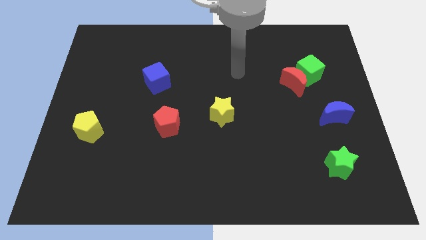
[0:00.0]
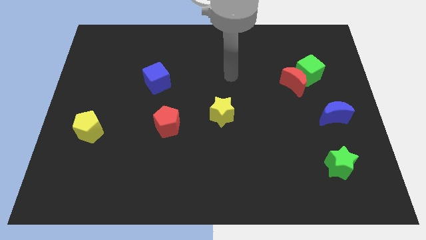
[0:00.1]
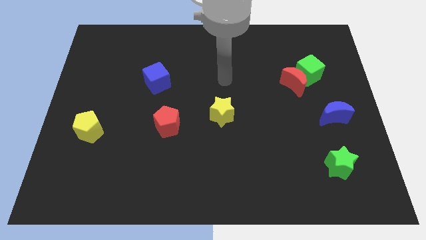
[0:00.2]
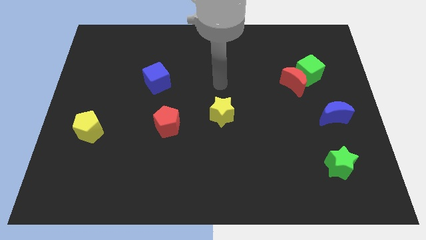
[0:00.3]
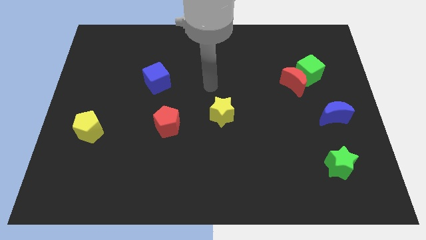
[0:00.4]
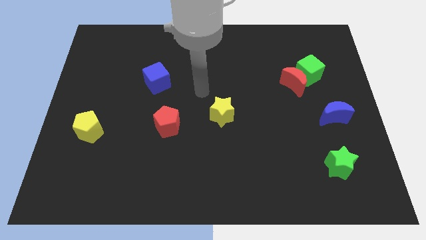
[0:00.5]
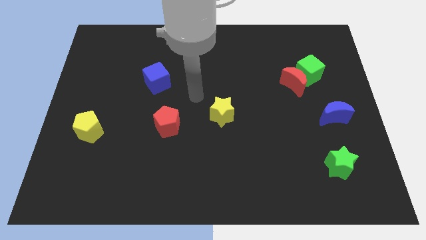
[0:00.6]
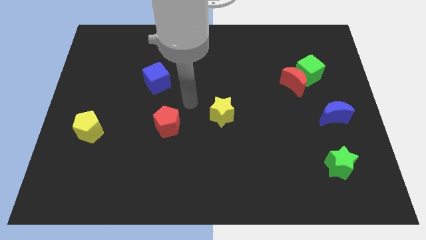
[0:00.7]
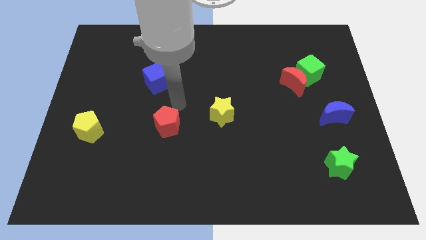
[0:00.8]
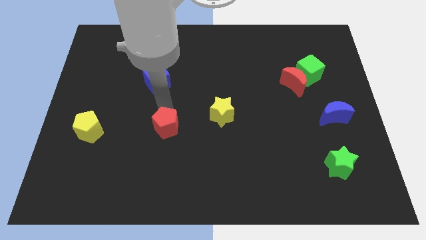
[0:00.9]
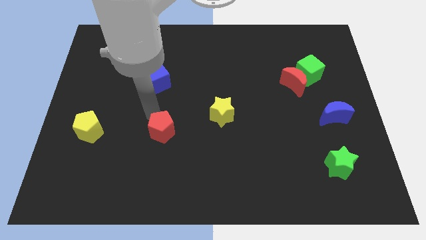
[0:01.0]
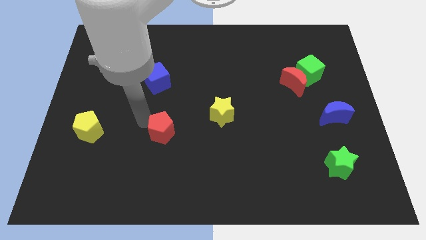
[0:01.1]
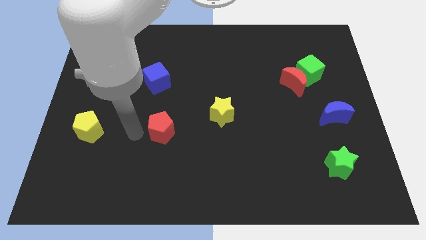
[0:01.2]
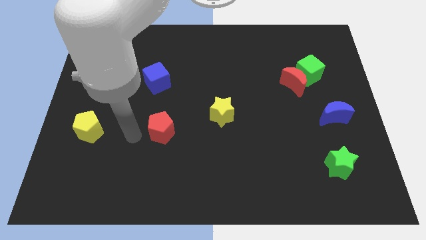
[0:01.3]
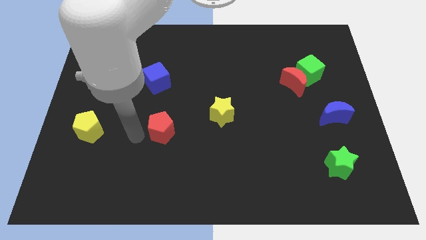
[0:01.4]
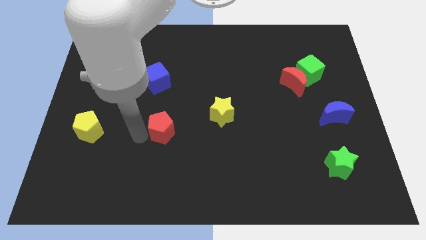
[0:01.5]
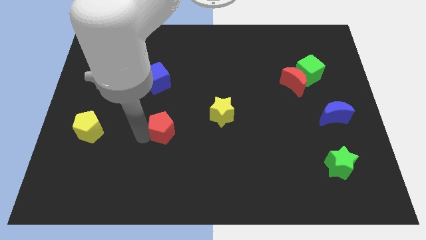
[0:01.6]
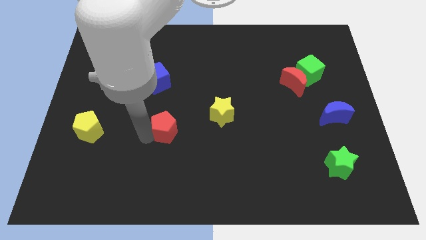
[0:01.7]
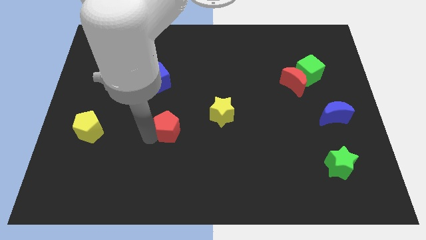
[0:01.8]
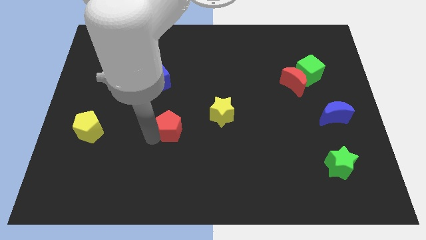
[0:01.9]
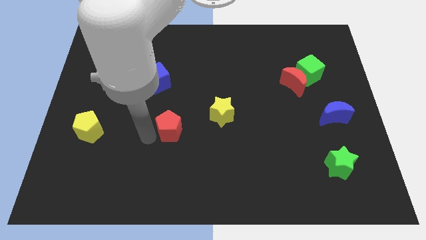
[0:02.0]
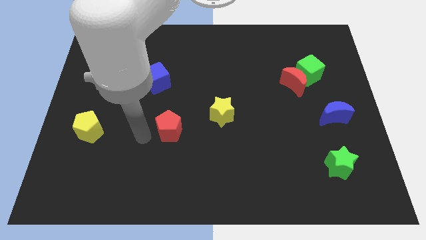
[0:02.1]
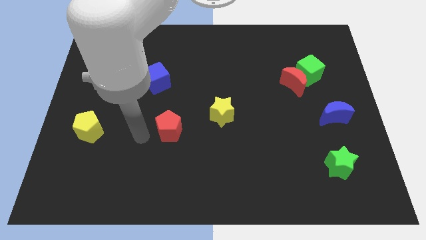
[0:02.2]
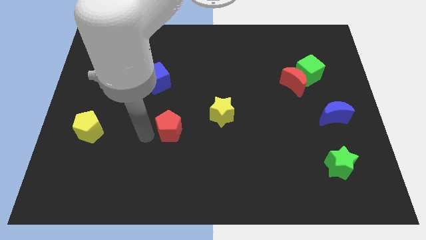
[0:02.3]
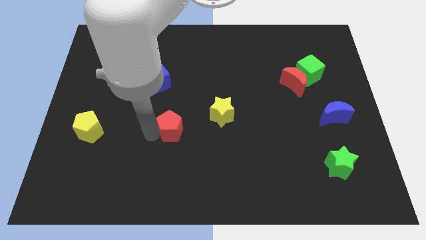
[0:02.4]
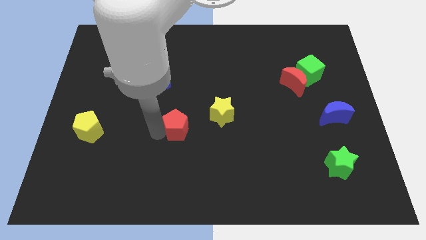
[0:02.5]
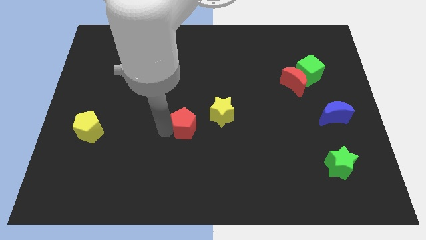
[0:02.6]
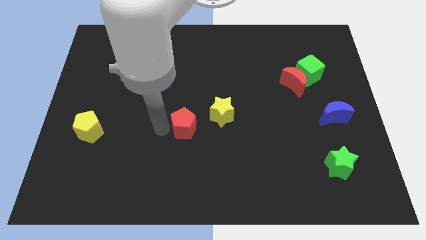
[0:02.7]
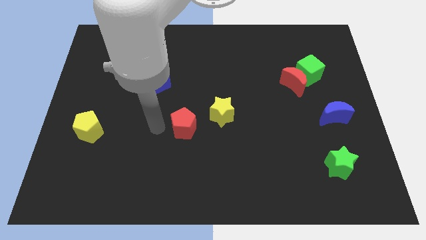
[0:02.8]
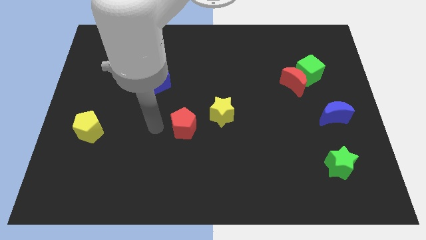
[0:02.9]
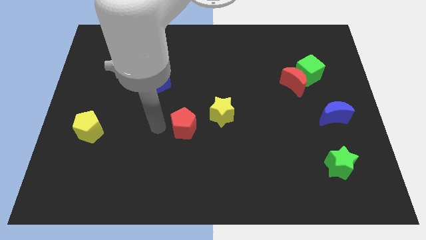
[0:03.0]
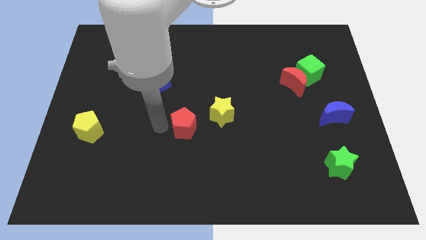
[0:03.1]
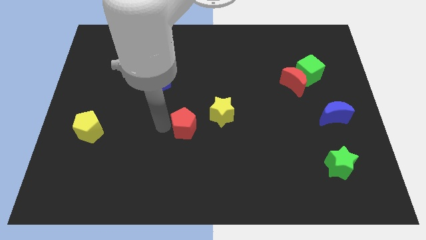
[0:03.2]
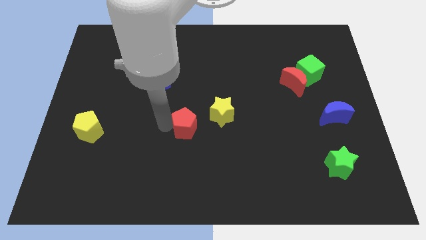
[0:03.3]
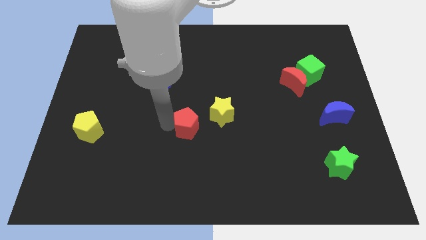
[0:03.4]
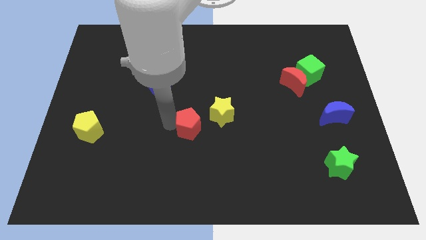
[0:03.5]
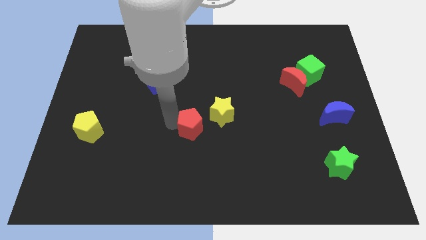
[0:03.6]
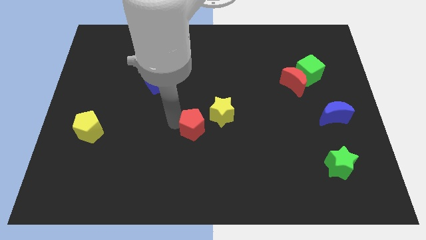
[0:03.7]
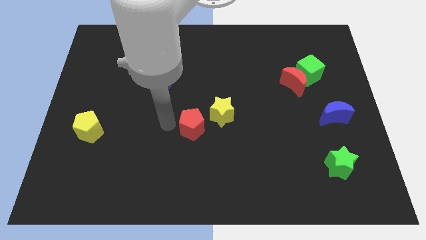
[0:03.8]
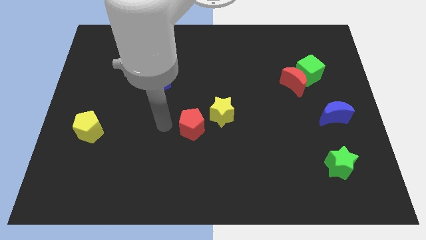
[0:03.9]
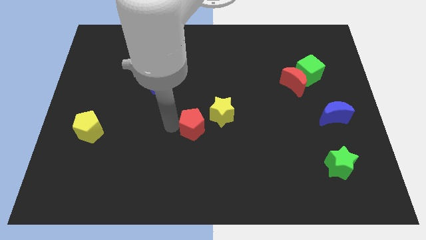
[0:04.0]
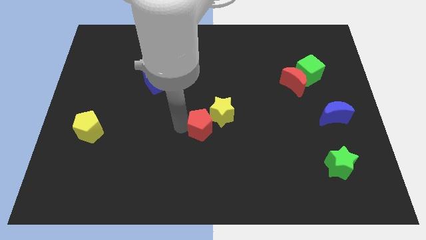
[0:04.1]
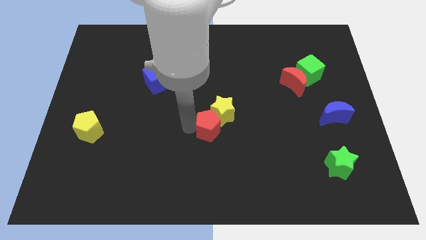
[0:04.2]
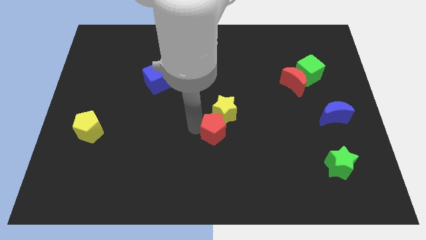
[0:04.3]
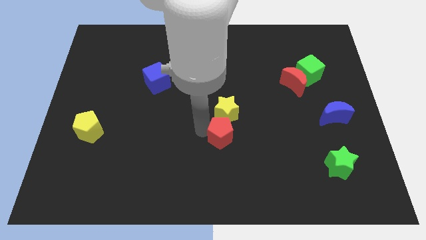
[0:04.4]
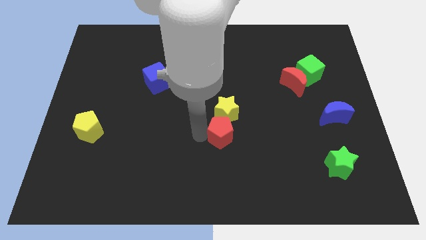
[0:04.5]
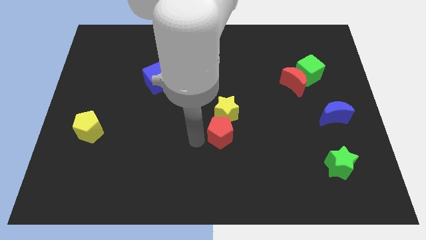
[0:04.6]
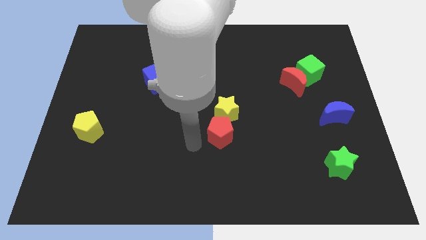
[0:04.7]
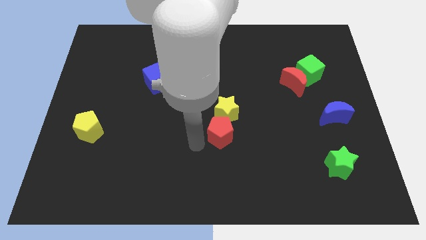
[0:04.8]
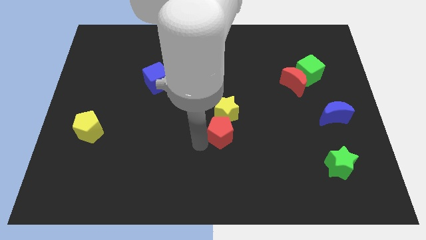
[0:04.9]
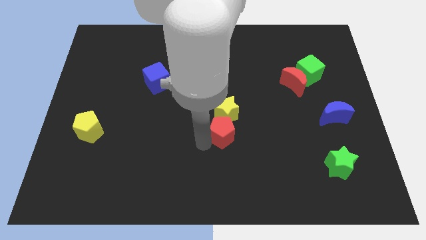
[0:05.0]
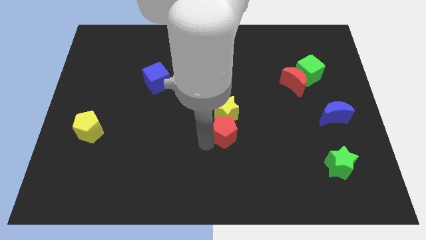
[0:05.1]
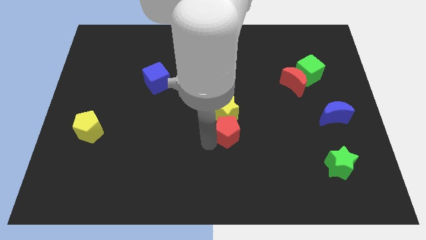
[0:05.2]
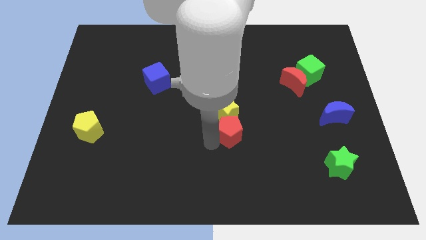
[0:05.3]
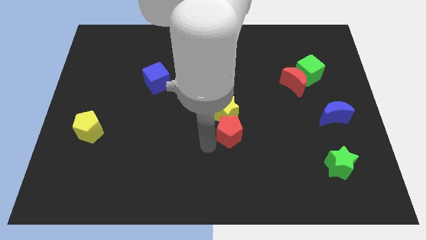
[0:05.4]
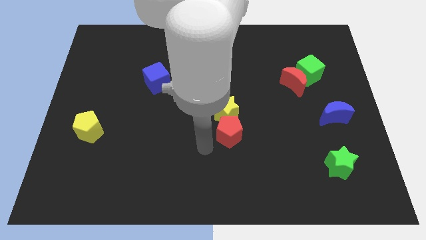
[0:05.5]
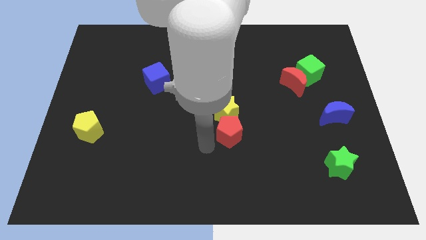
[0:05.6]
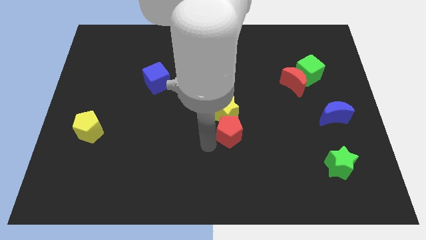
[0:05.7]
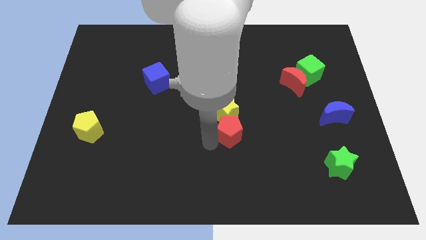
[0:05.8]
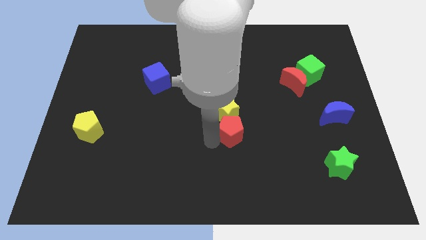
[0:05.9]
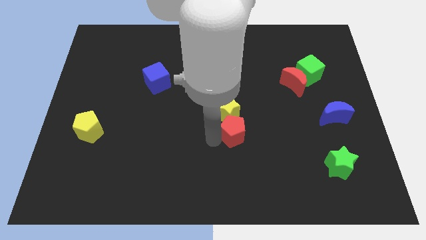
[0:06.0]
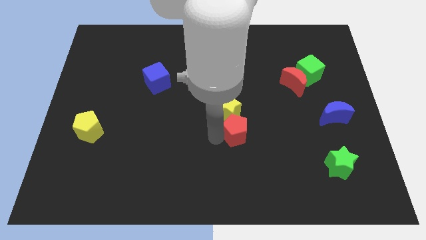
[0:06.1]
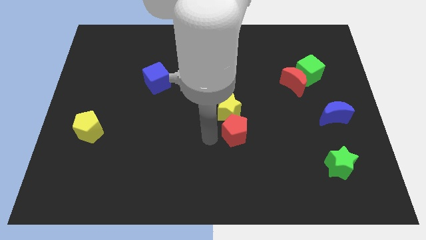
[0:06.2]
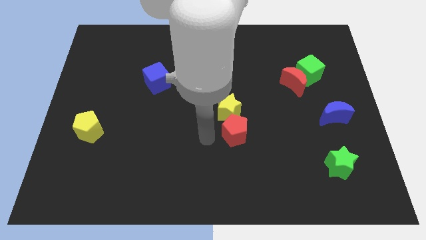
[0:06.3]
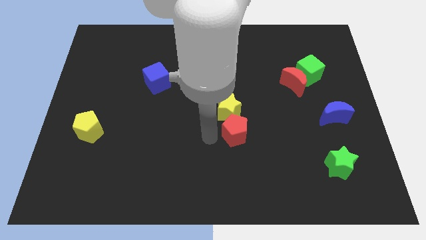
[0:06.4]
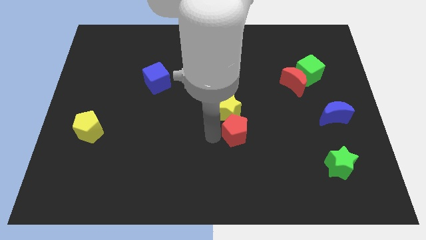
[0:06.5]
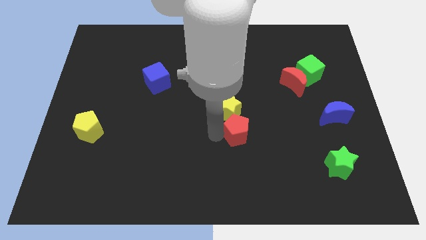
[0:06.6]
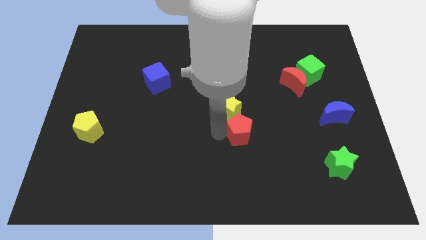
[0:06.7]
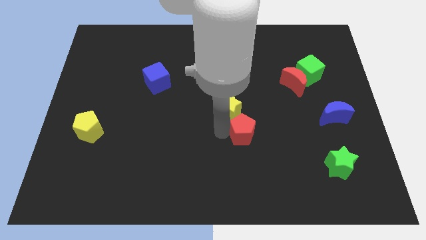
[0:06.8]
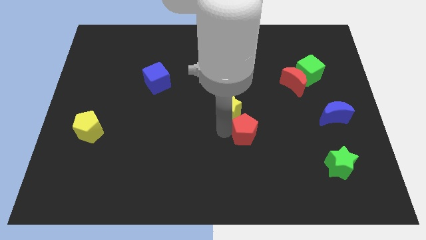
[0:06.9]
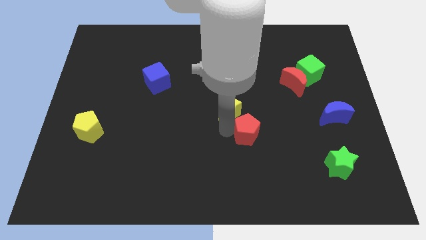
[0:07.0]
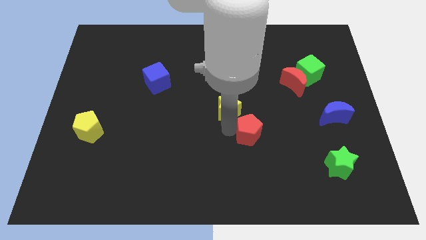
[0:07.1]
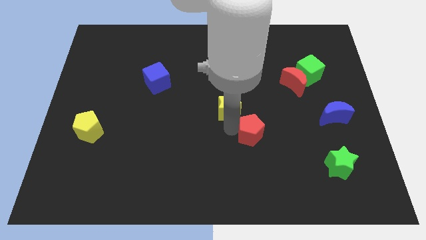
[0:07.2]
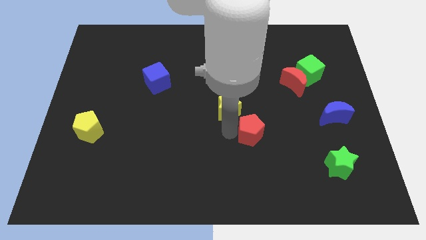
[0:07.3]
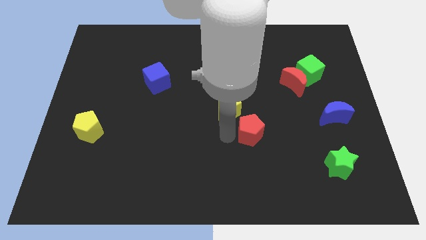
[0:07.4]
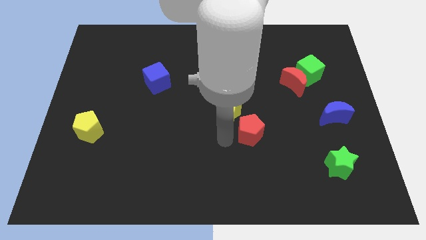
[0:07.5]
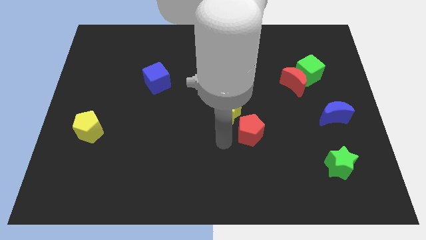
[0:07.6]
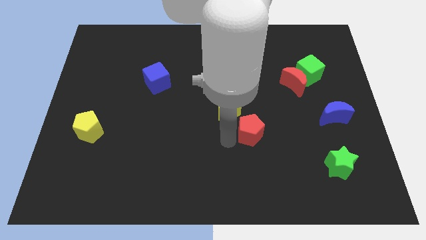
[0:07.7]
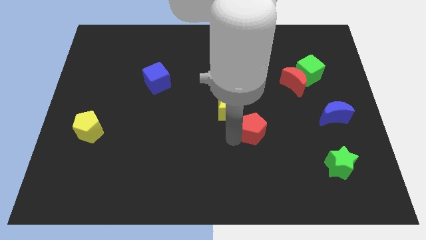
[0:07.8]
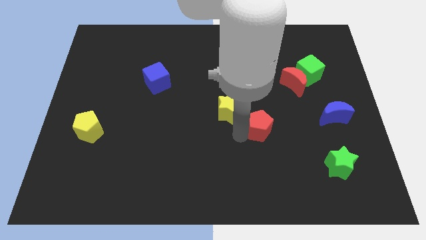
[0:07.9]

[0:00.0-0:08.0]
push the red pentagon to the right
